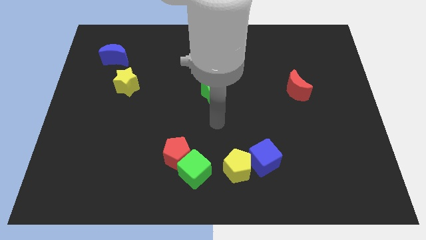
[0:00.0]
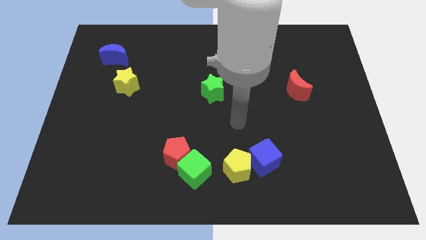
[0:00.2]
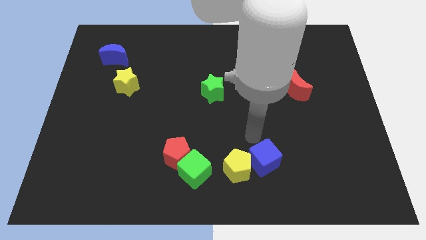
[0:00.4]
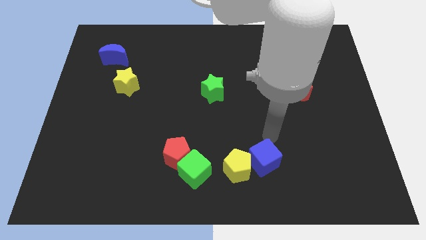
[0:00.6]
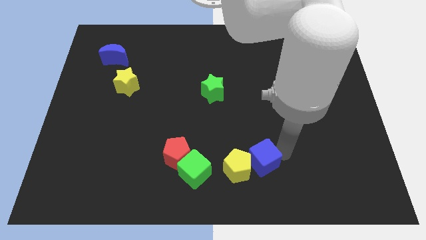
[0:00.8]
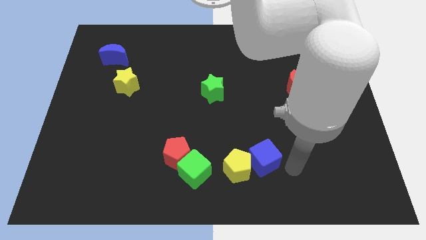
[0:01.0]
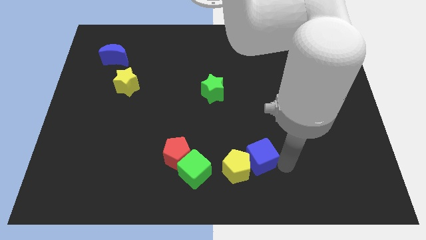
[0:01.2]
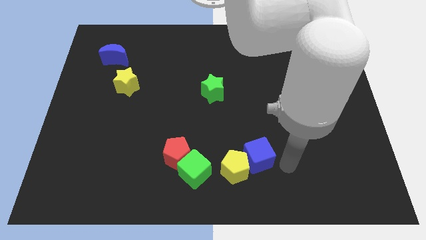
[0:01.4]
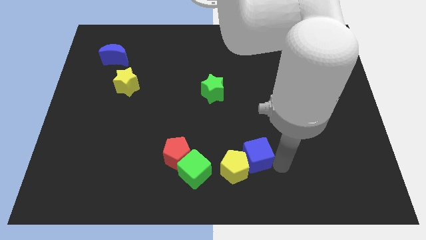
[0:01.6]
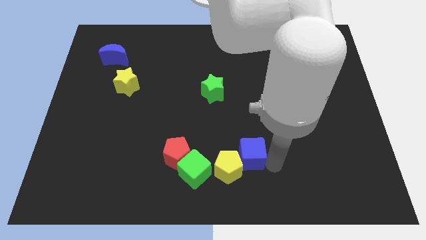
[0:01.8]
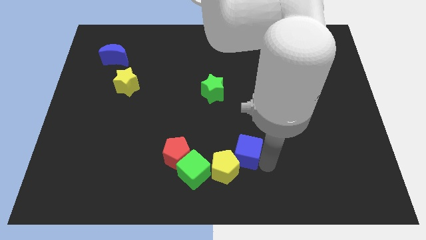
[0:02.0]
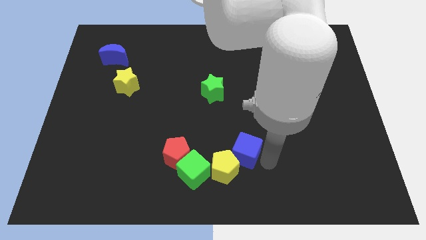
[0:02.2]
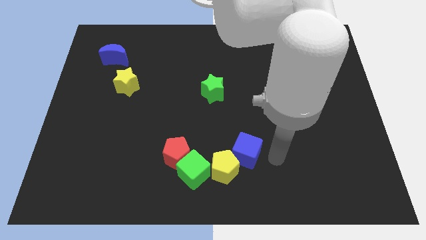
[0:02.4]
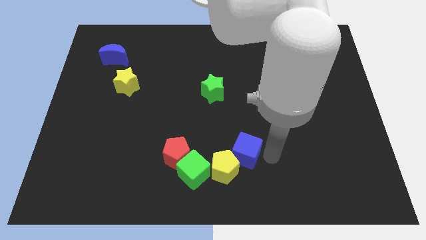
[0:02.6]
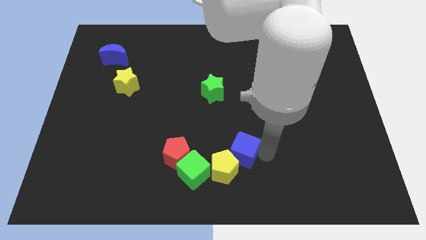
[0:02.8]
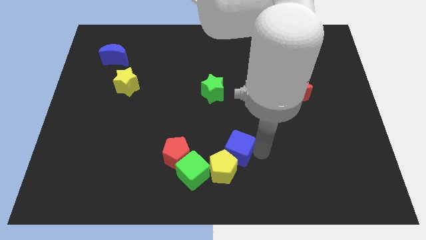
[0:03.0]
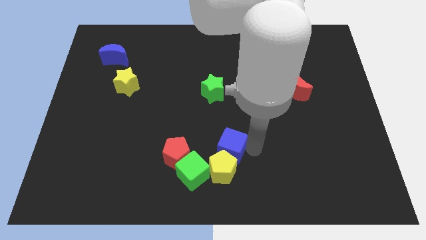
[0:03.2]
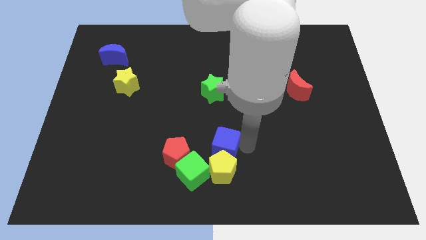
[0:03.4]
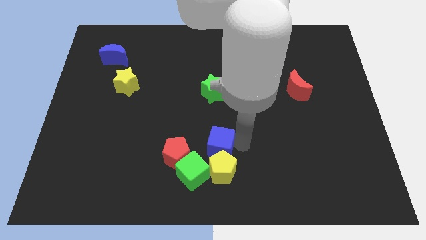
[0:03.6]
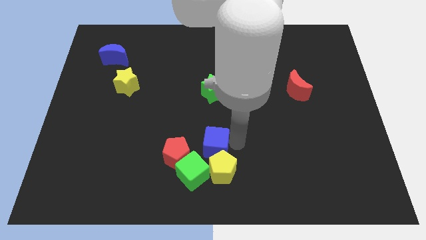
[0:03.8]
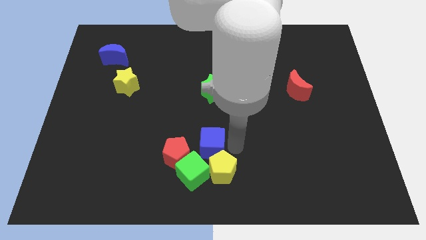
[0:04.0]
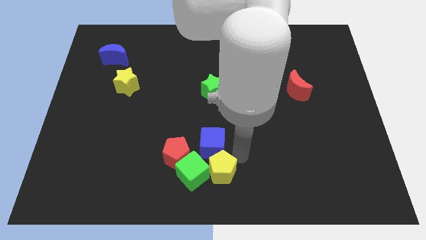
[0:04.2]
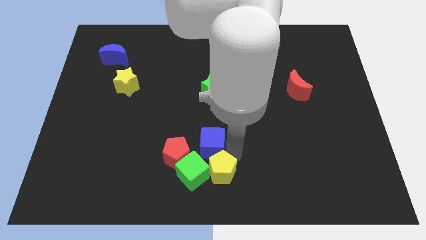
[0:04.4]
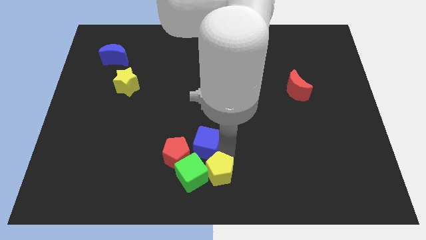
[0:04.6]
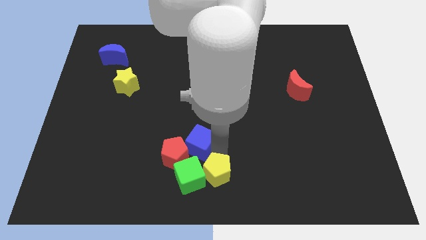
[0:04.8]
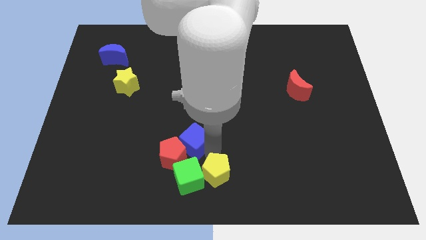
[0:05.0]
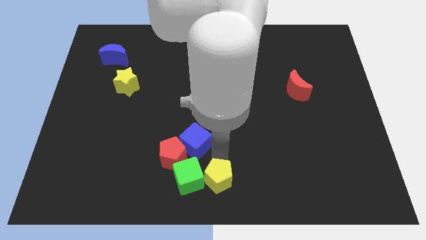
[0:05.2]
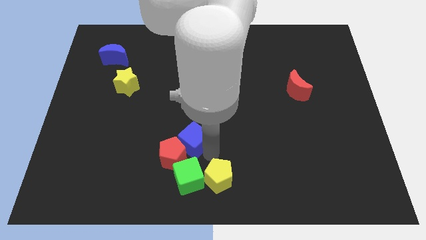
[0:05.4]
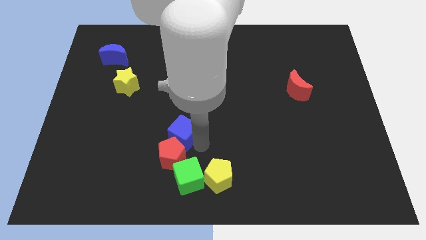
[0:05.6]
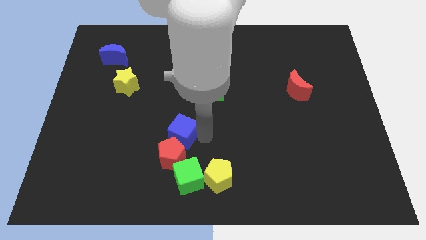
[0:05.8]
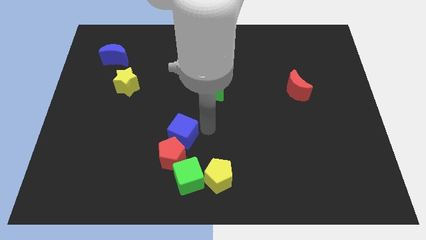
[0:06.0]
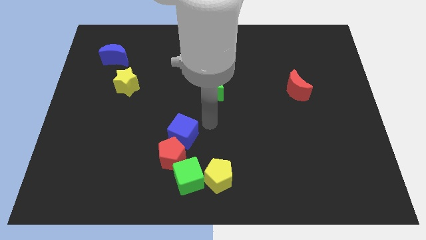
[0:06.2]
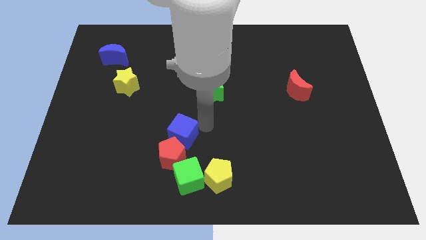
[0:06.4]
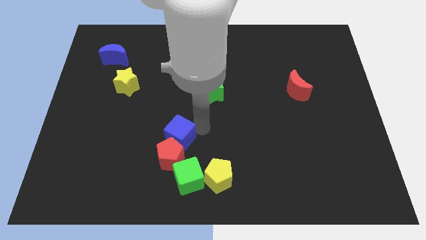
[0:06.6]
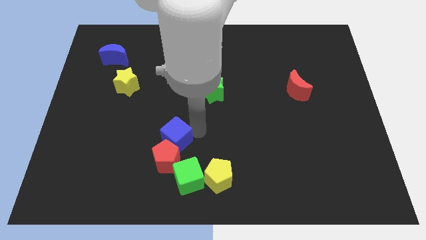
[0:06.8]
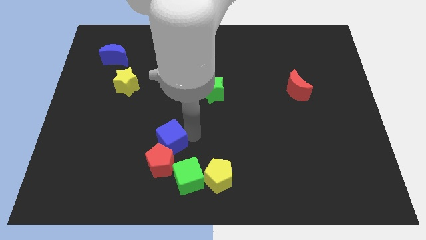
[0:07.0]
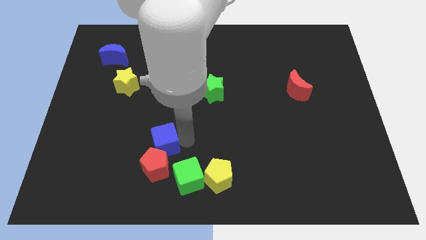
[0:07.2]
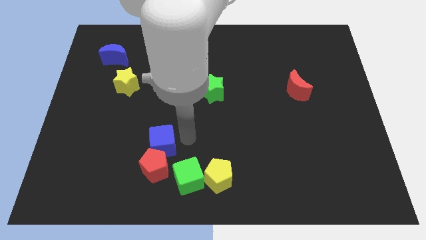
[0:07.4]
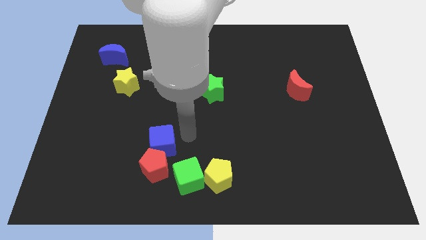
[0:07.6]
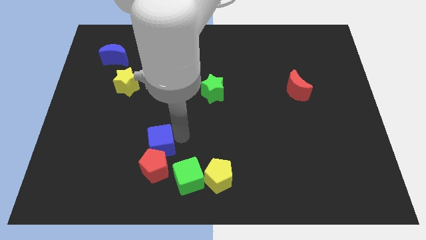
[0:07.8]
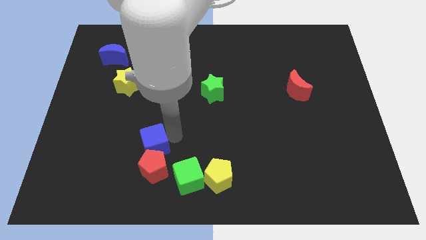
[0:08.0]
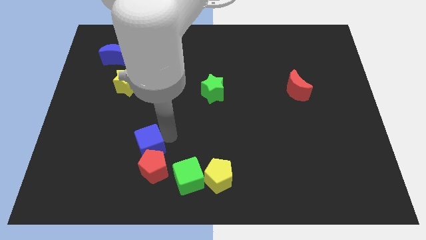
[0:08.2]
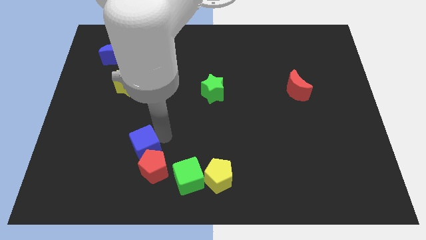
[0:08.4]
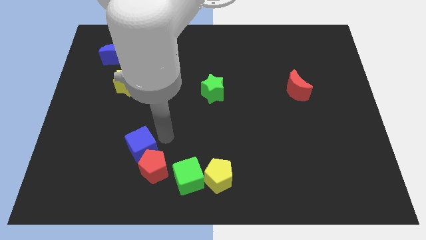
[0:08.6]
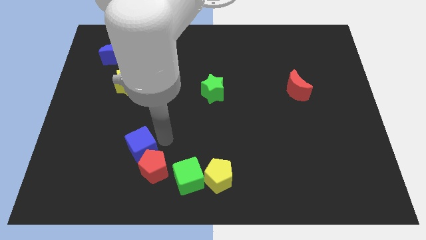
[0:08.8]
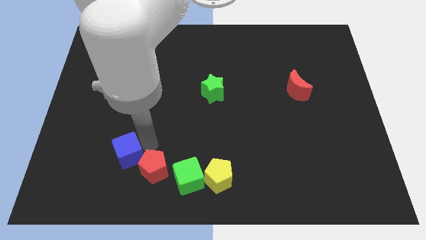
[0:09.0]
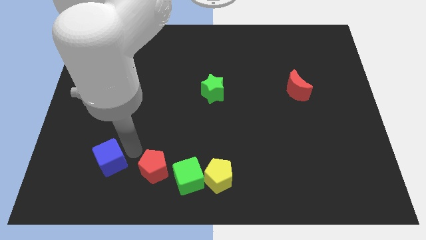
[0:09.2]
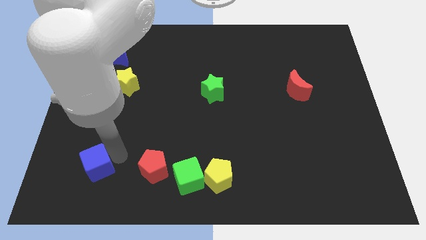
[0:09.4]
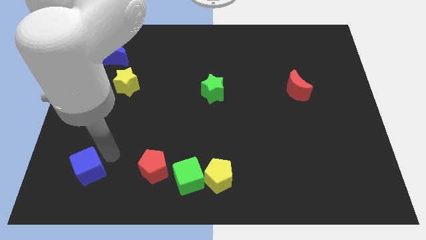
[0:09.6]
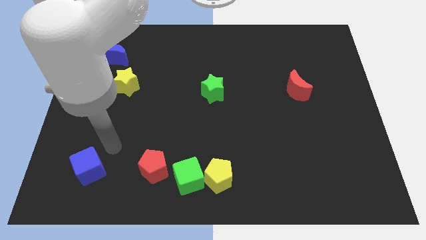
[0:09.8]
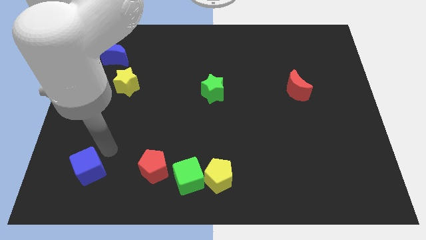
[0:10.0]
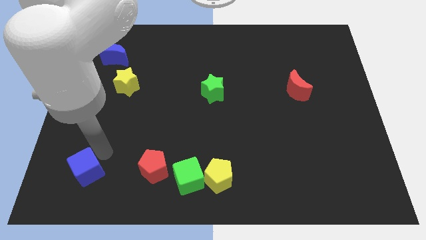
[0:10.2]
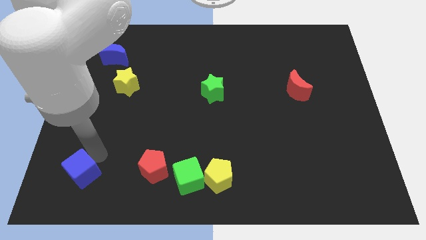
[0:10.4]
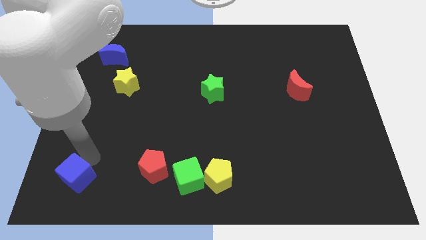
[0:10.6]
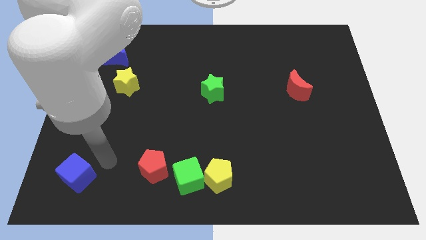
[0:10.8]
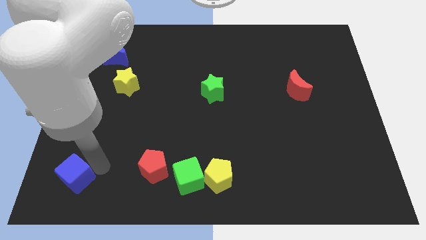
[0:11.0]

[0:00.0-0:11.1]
put the blue cube to the bottom left corner

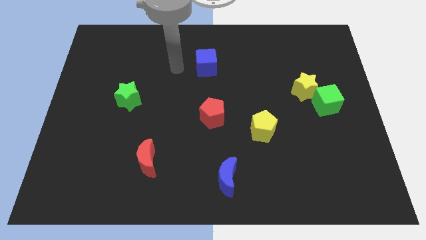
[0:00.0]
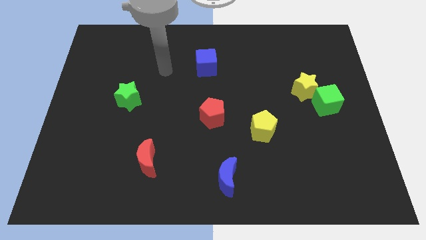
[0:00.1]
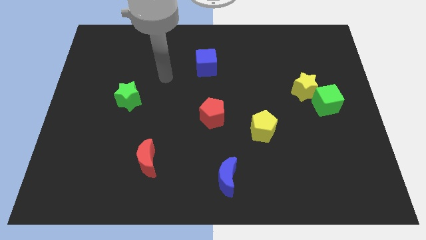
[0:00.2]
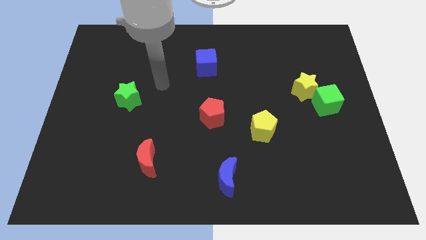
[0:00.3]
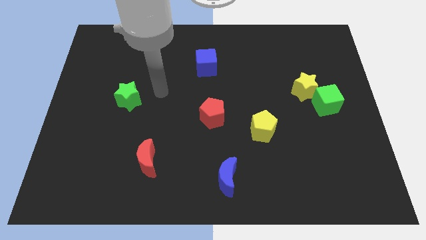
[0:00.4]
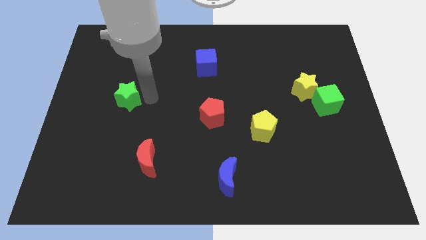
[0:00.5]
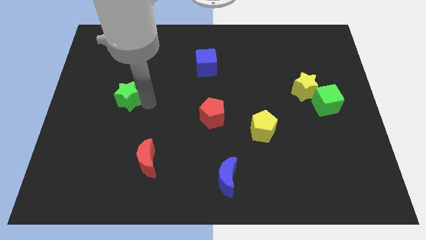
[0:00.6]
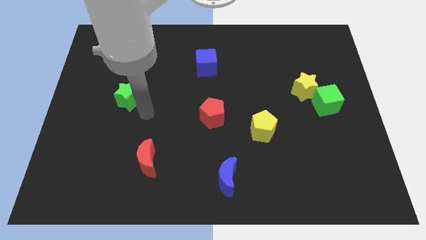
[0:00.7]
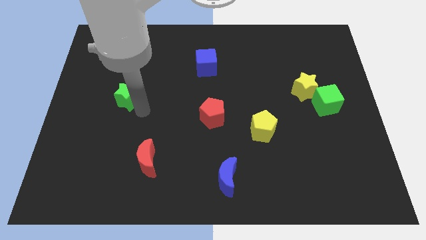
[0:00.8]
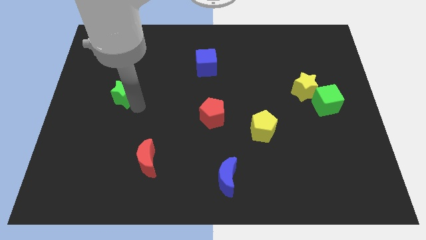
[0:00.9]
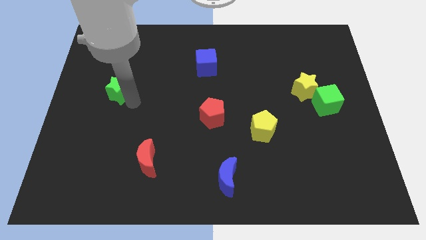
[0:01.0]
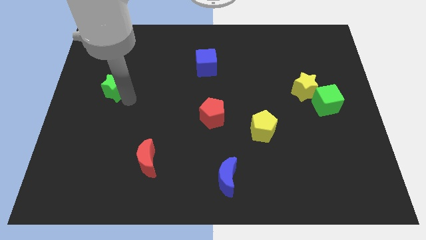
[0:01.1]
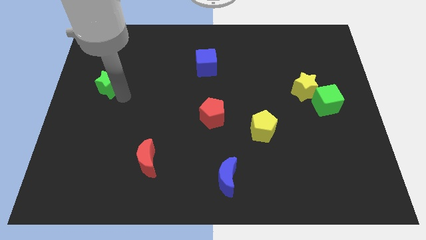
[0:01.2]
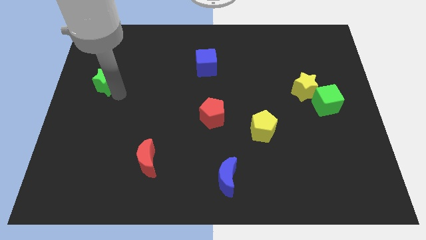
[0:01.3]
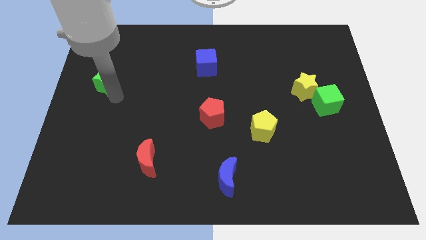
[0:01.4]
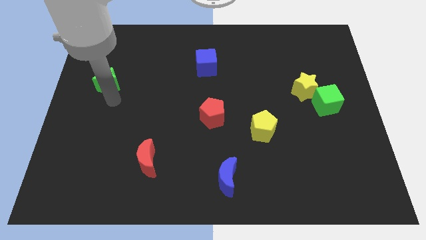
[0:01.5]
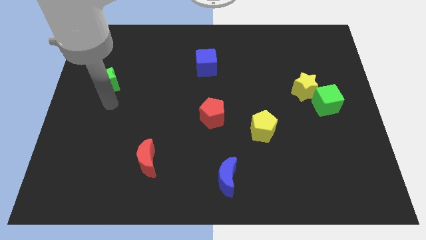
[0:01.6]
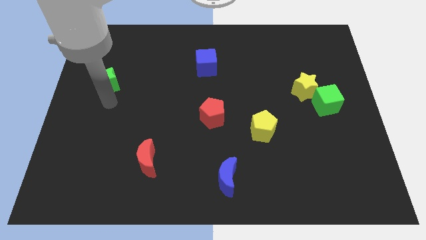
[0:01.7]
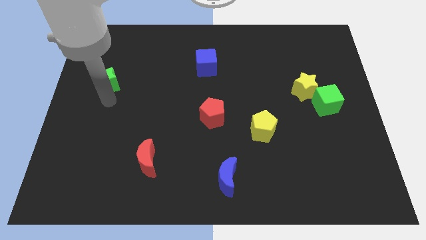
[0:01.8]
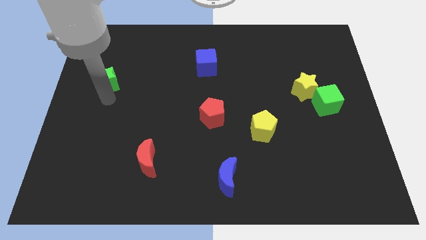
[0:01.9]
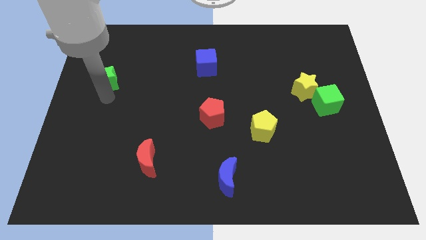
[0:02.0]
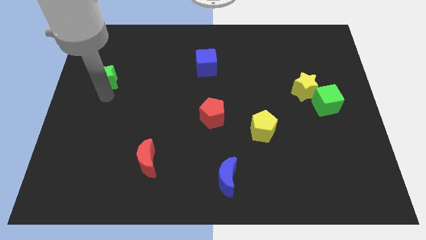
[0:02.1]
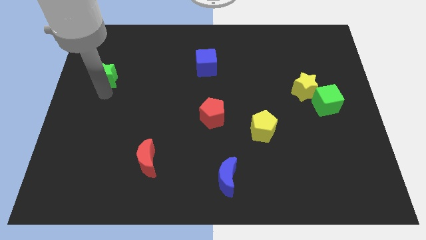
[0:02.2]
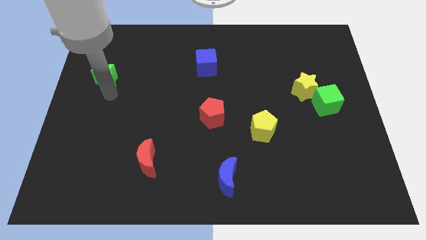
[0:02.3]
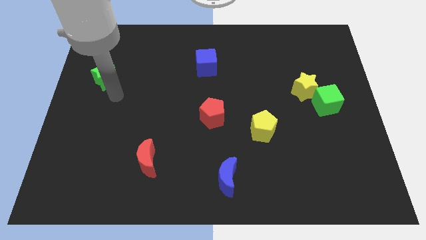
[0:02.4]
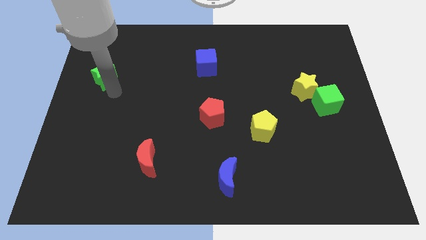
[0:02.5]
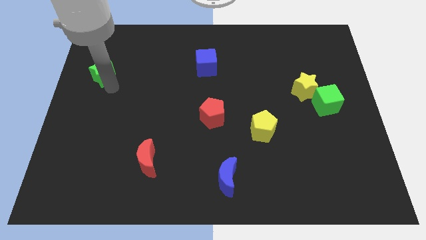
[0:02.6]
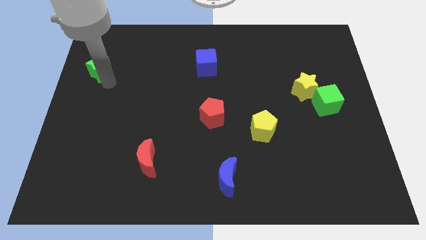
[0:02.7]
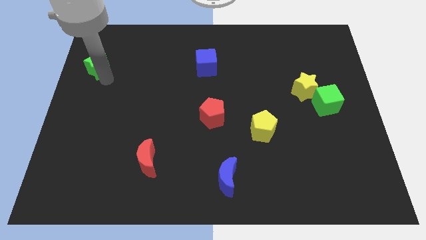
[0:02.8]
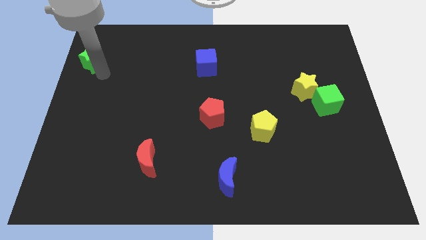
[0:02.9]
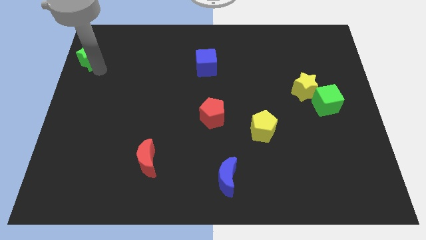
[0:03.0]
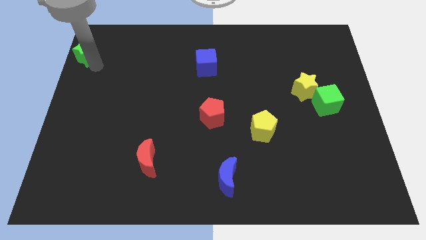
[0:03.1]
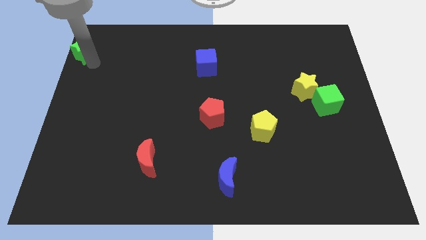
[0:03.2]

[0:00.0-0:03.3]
put the green star to the upper left corner
